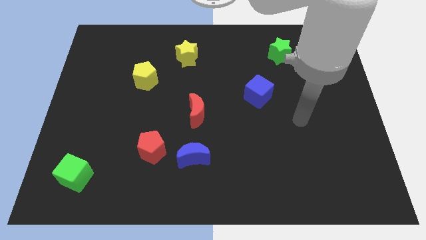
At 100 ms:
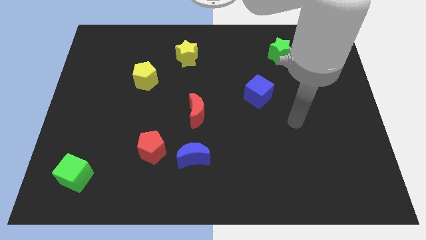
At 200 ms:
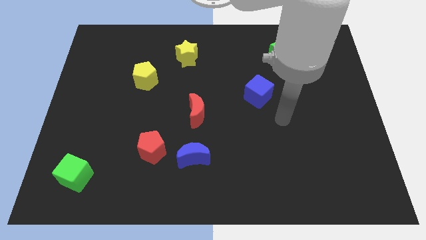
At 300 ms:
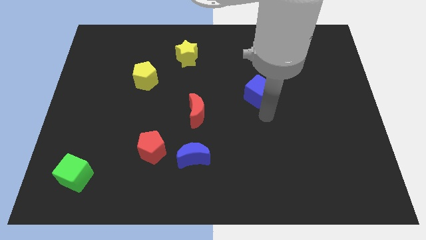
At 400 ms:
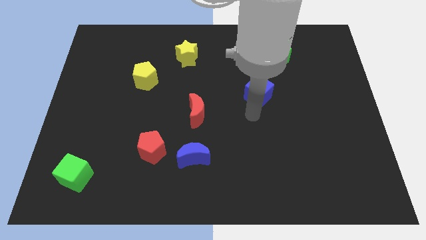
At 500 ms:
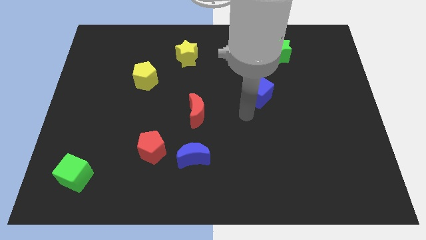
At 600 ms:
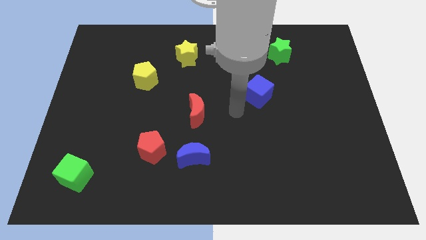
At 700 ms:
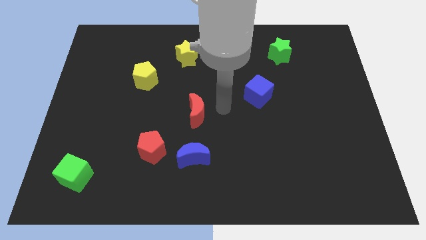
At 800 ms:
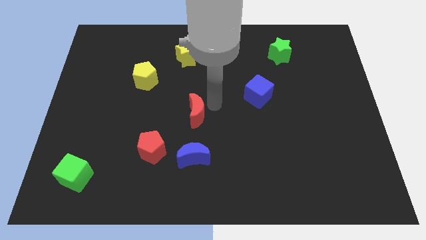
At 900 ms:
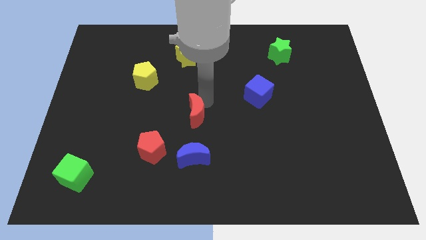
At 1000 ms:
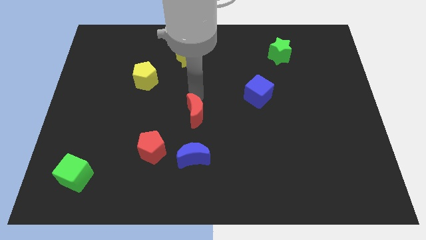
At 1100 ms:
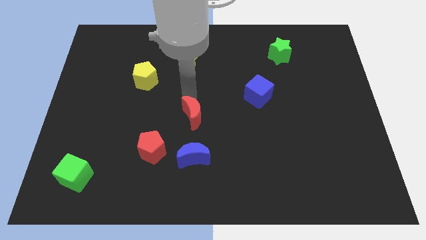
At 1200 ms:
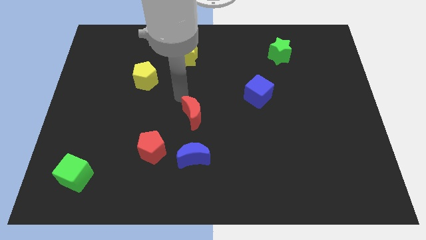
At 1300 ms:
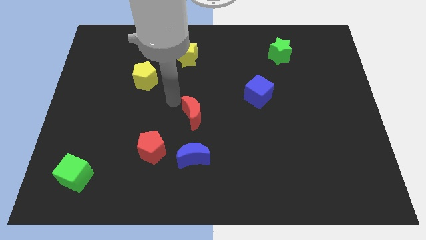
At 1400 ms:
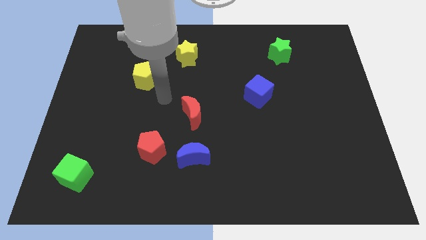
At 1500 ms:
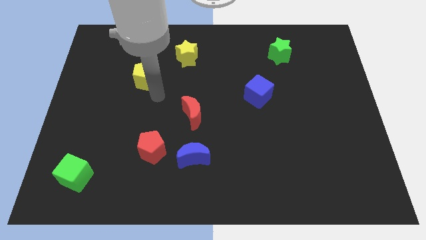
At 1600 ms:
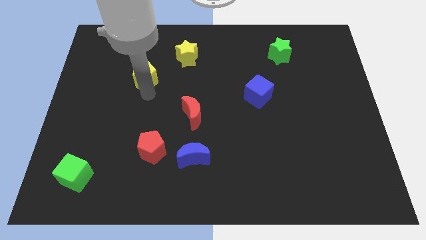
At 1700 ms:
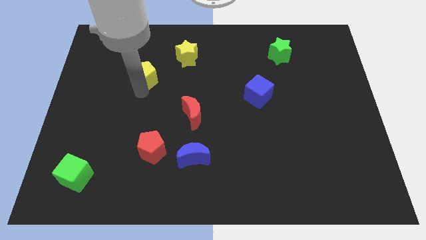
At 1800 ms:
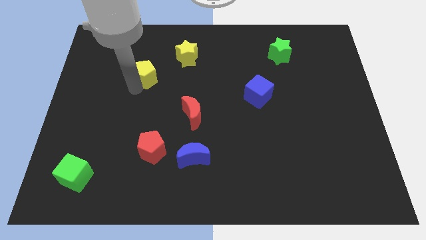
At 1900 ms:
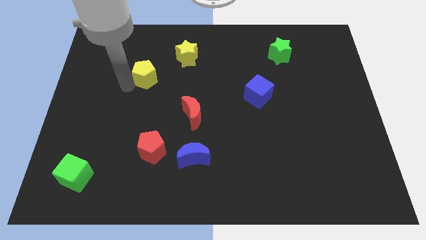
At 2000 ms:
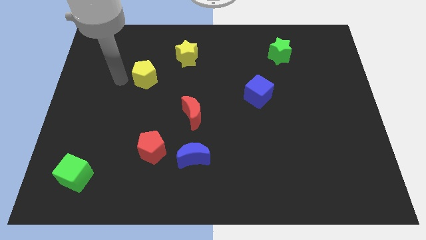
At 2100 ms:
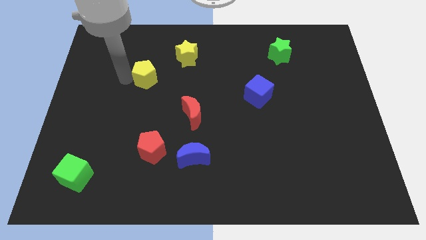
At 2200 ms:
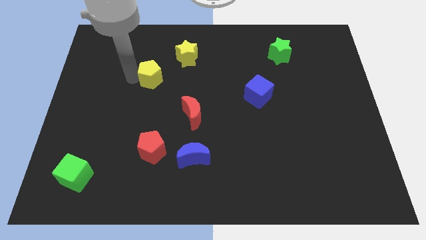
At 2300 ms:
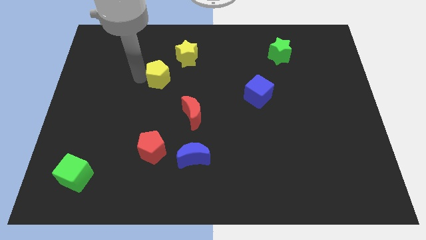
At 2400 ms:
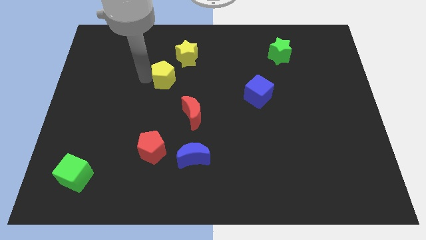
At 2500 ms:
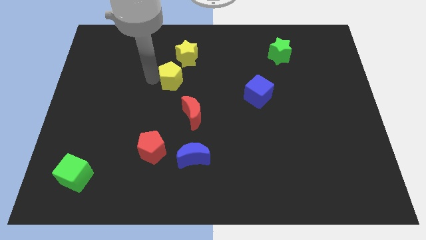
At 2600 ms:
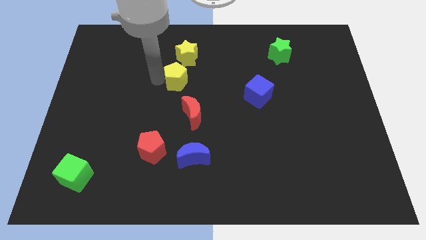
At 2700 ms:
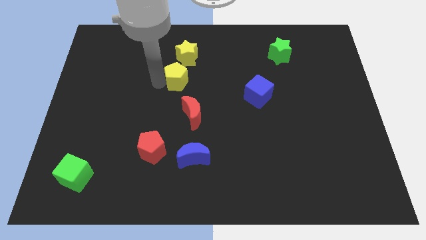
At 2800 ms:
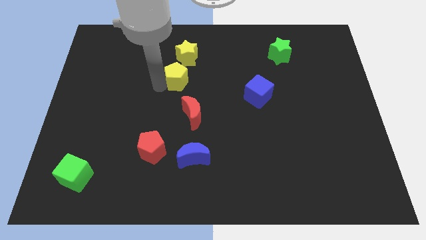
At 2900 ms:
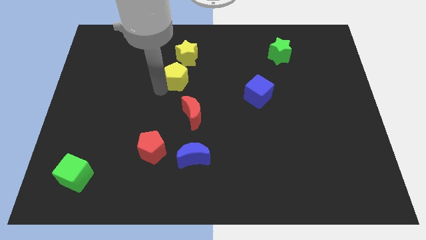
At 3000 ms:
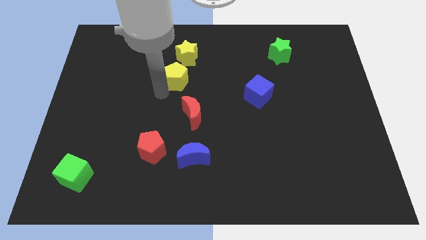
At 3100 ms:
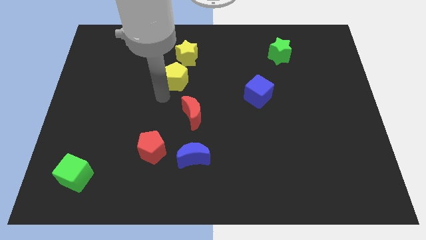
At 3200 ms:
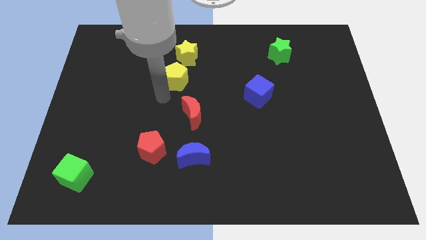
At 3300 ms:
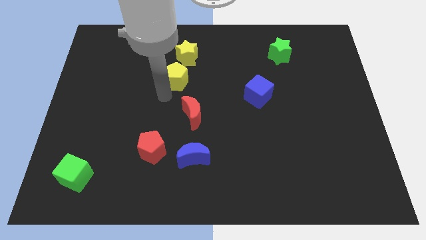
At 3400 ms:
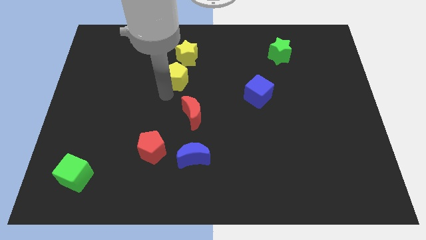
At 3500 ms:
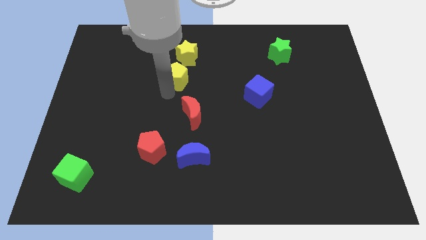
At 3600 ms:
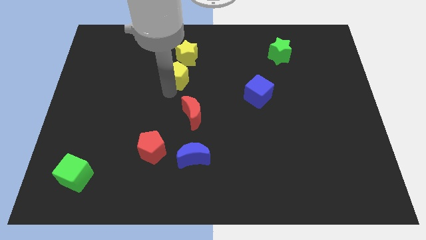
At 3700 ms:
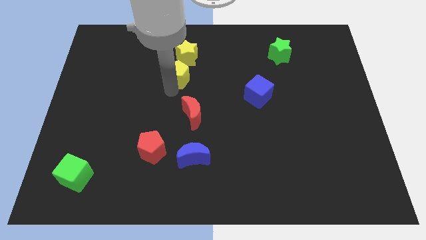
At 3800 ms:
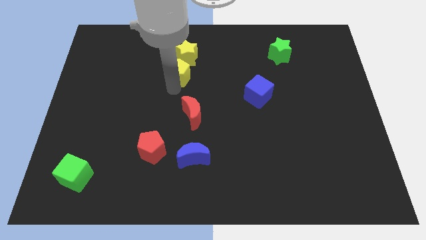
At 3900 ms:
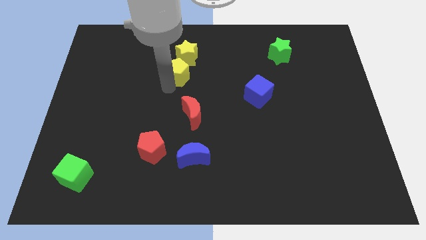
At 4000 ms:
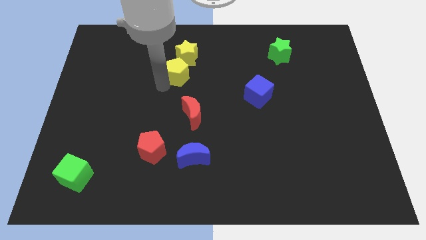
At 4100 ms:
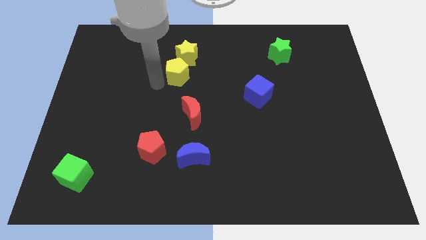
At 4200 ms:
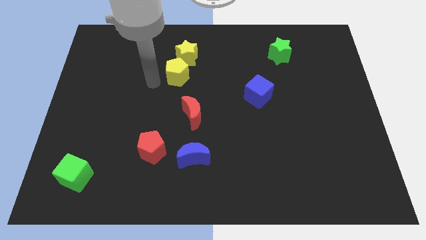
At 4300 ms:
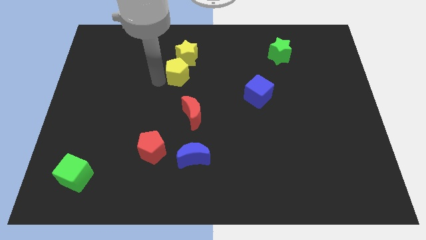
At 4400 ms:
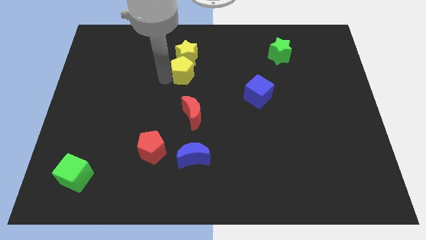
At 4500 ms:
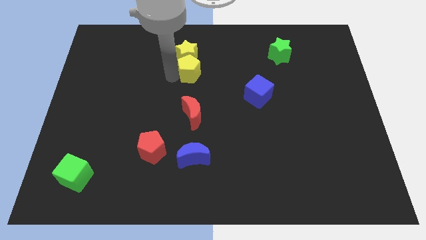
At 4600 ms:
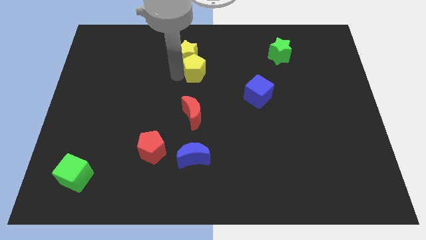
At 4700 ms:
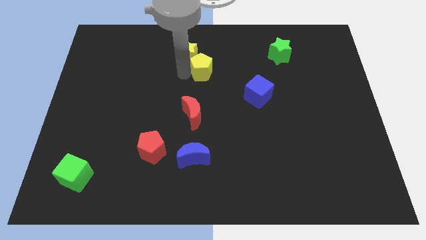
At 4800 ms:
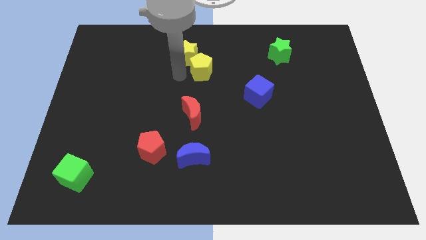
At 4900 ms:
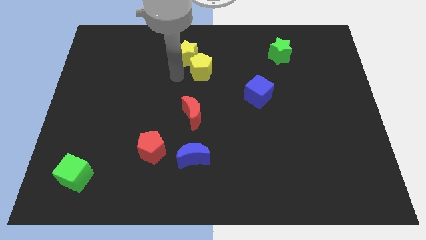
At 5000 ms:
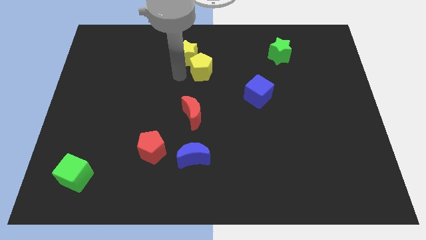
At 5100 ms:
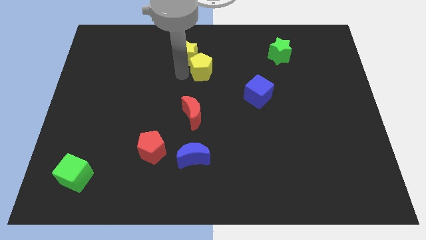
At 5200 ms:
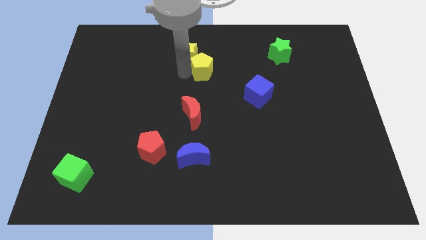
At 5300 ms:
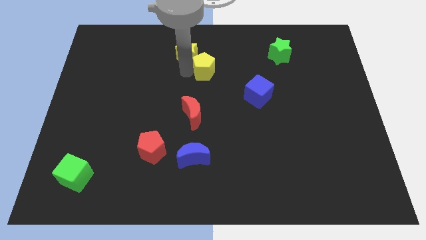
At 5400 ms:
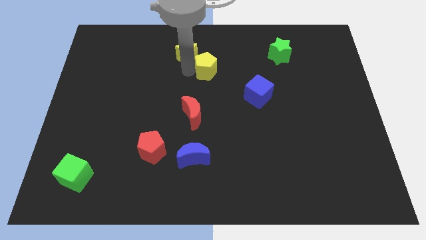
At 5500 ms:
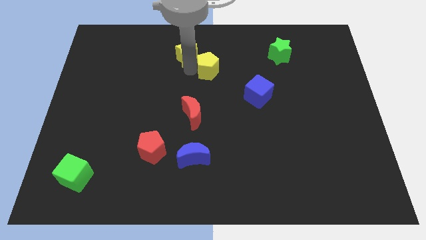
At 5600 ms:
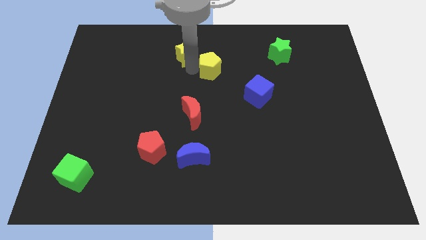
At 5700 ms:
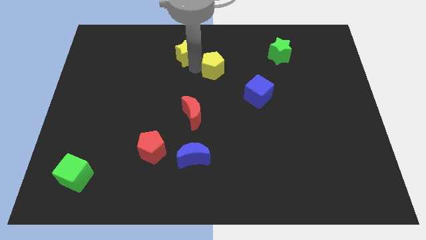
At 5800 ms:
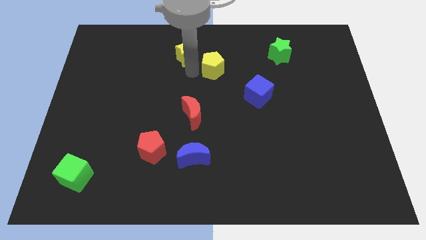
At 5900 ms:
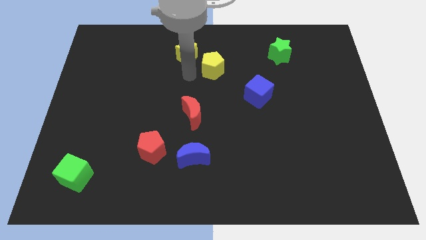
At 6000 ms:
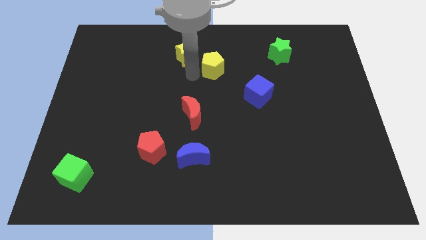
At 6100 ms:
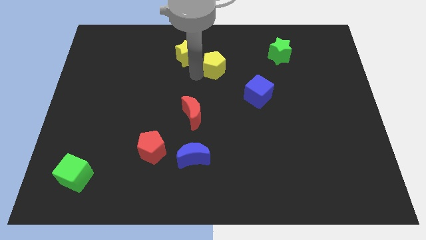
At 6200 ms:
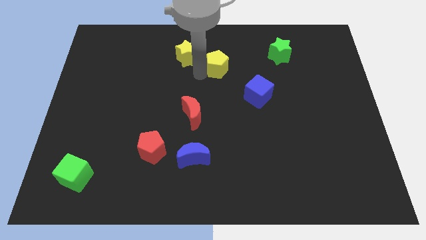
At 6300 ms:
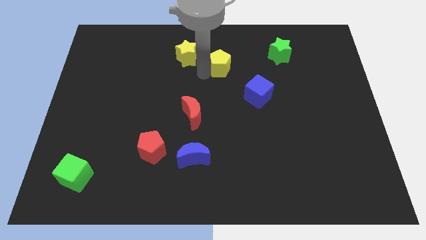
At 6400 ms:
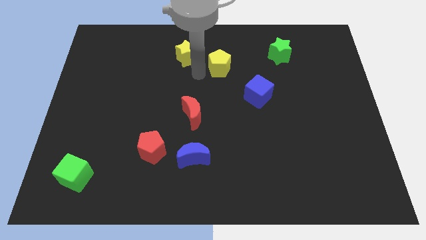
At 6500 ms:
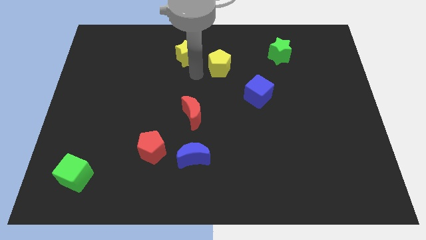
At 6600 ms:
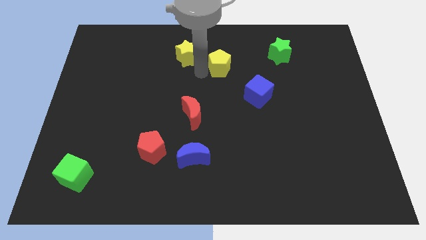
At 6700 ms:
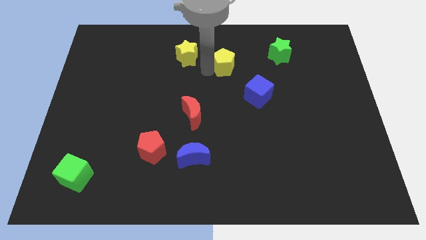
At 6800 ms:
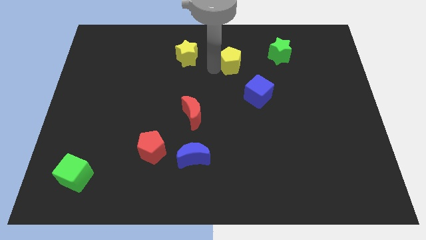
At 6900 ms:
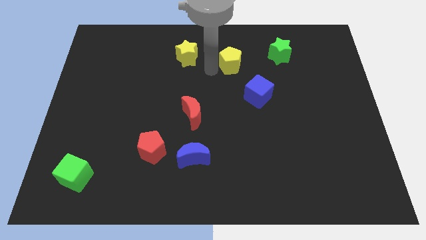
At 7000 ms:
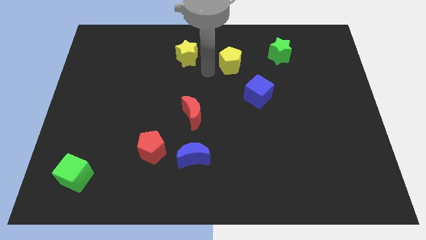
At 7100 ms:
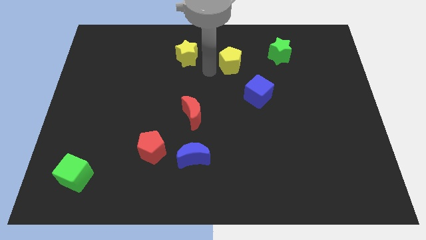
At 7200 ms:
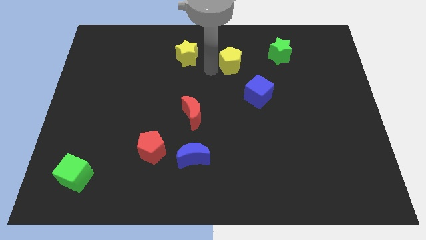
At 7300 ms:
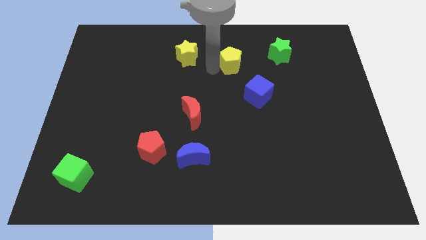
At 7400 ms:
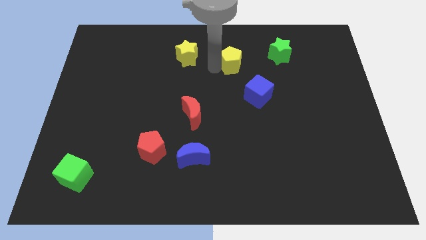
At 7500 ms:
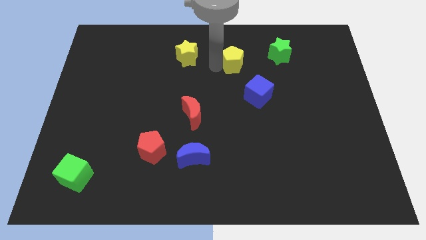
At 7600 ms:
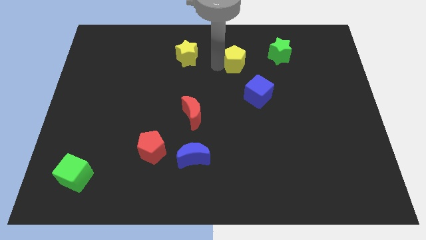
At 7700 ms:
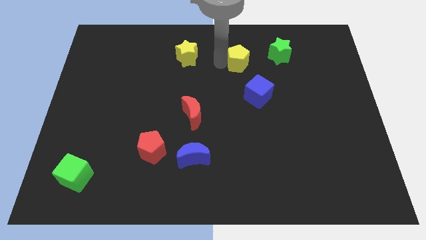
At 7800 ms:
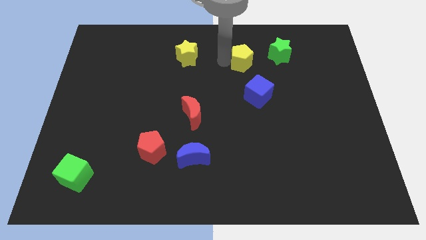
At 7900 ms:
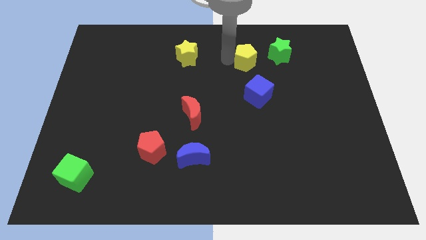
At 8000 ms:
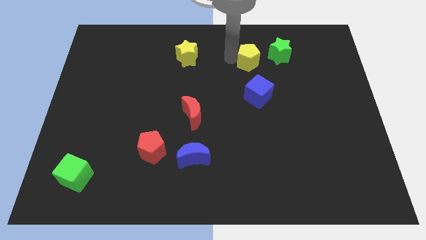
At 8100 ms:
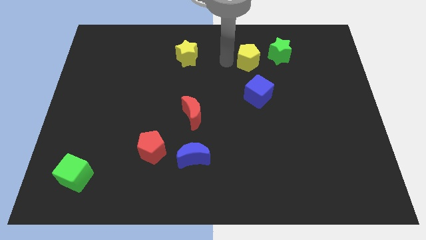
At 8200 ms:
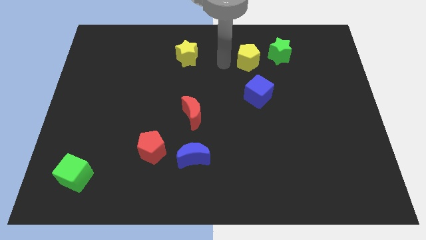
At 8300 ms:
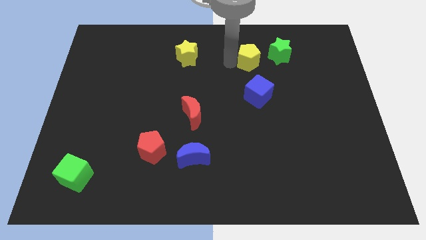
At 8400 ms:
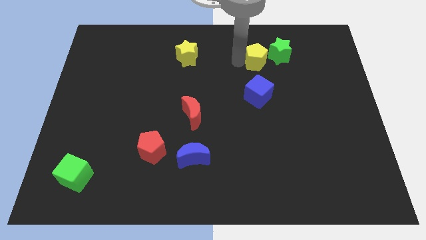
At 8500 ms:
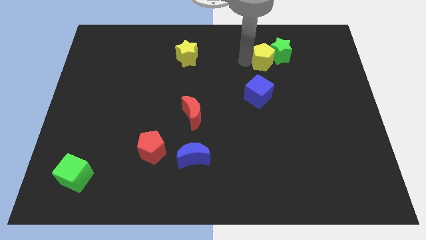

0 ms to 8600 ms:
move the yellow pentagon towards the green star
